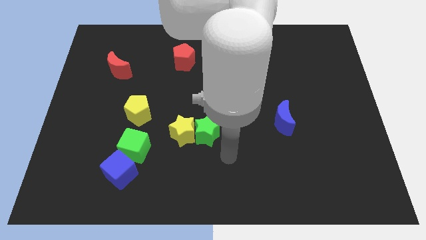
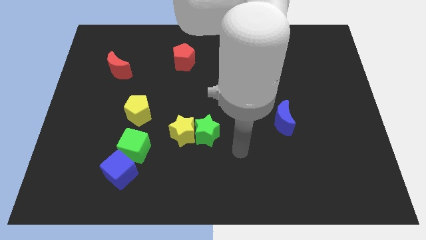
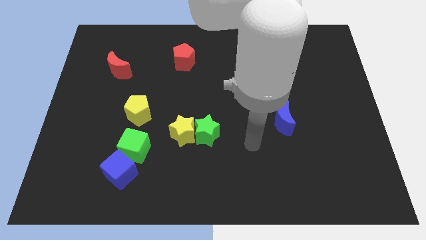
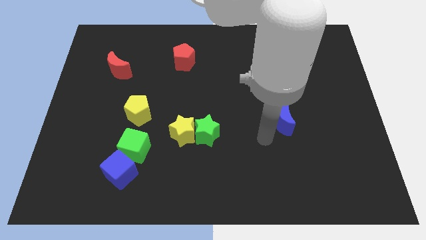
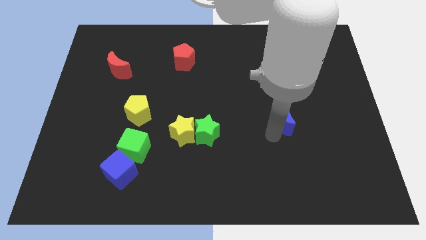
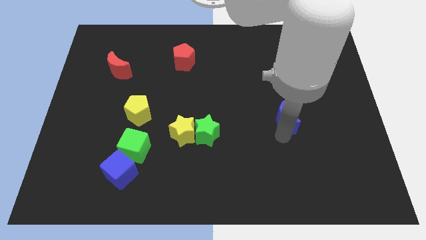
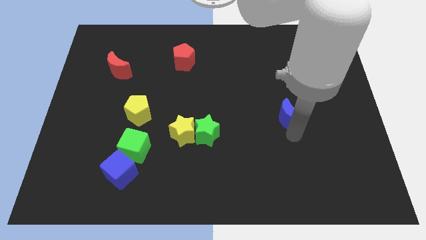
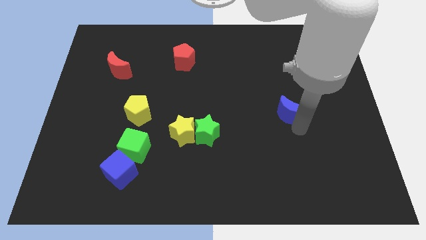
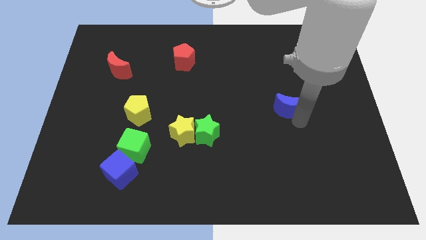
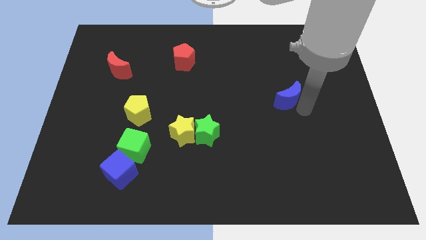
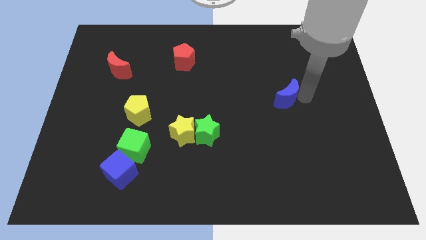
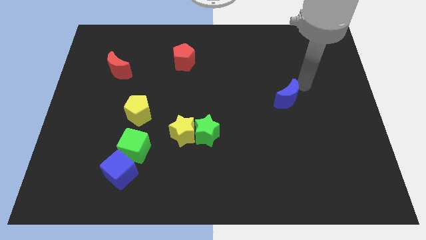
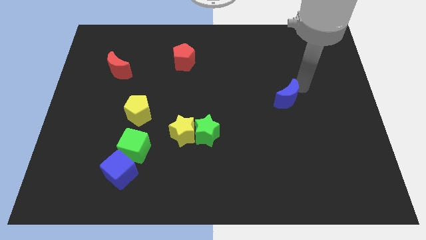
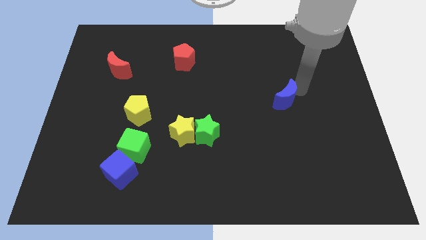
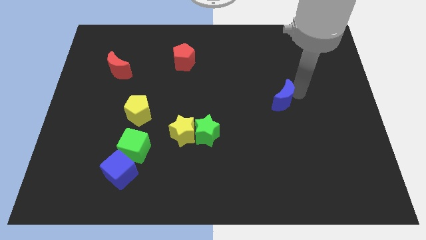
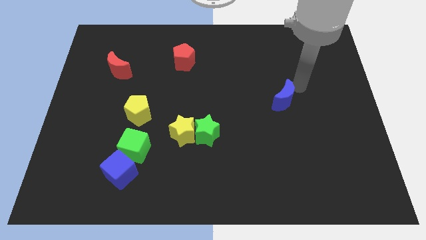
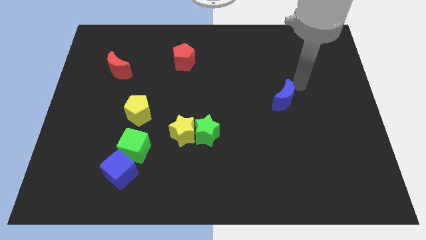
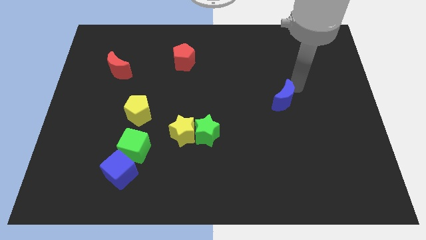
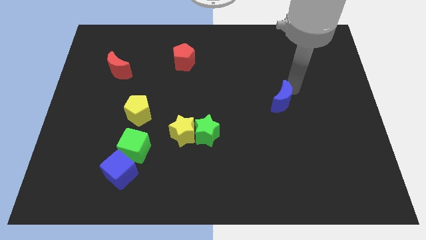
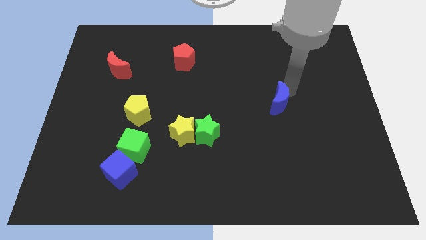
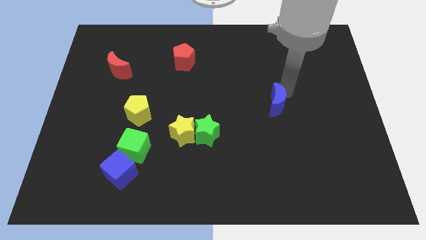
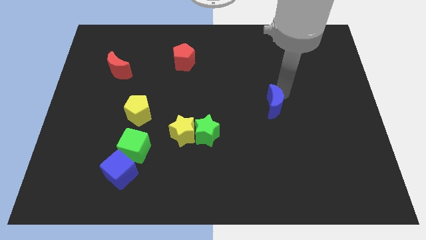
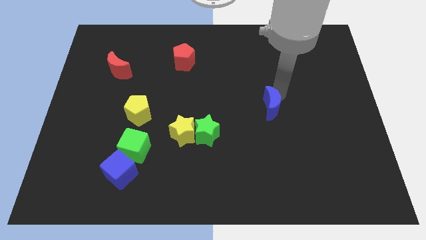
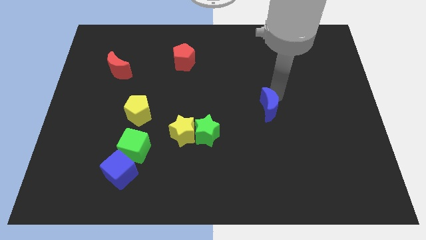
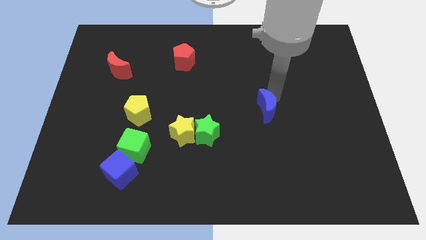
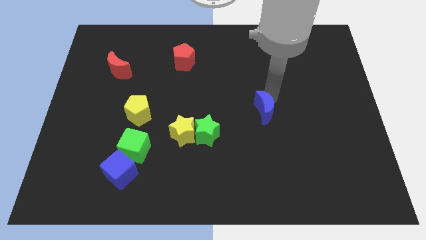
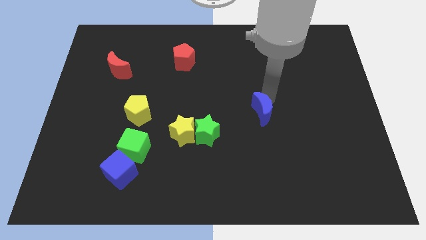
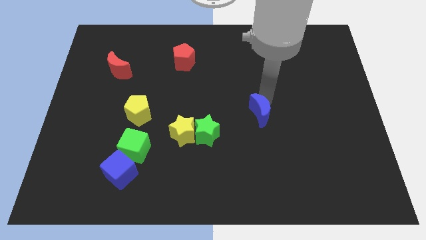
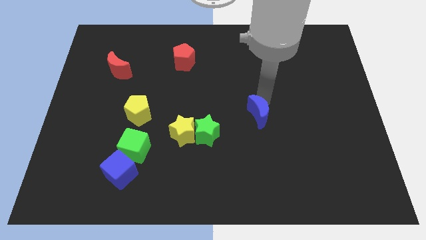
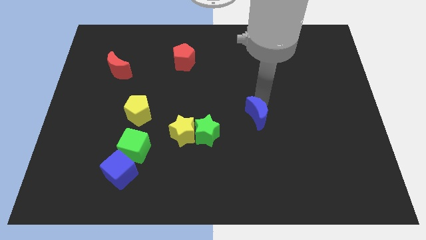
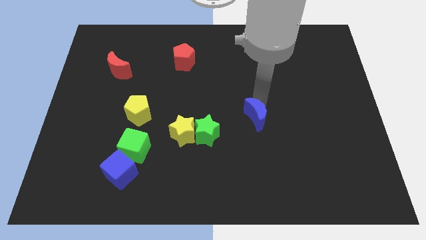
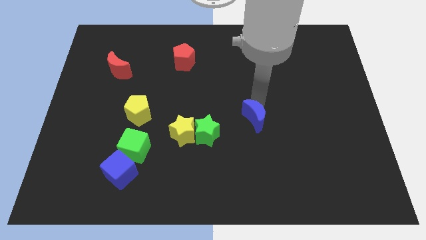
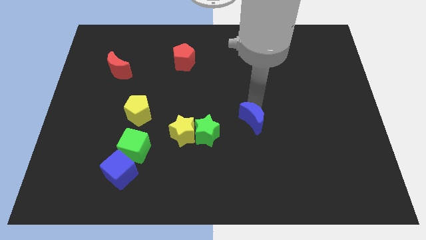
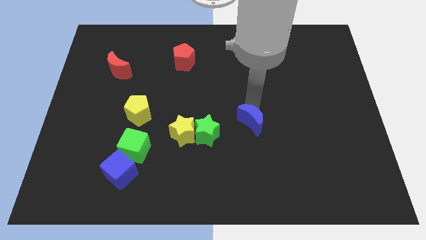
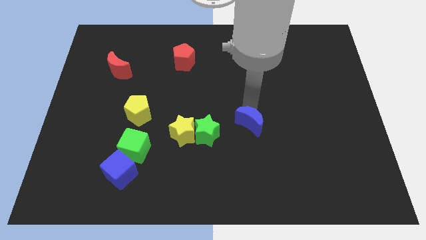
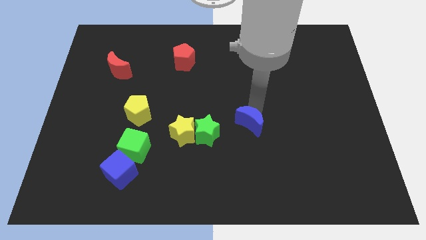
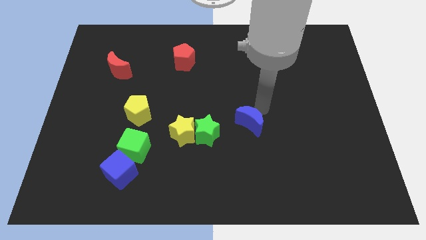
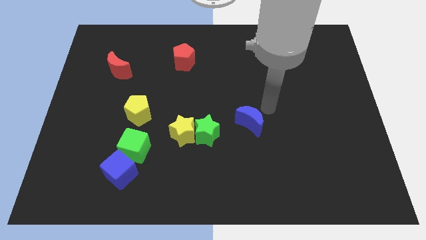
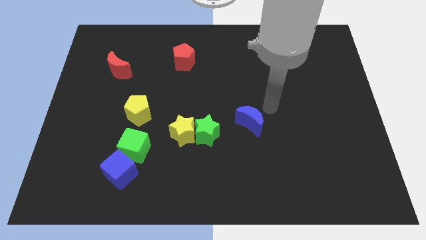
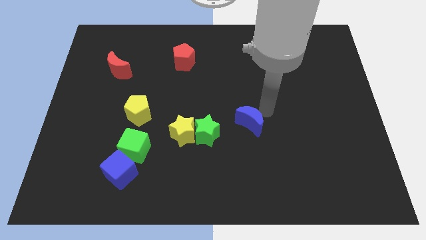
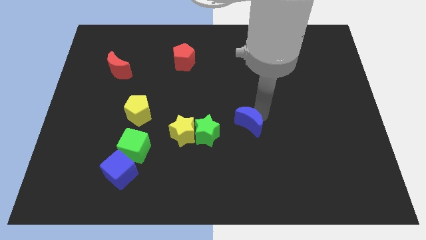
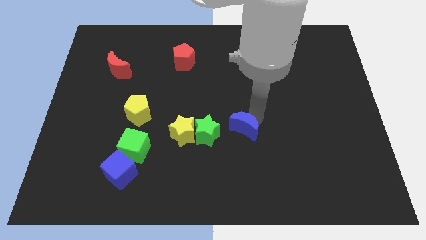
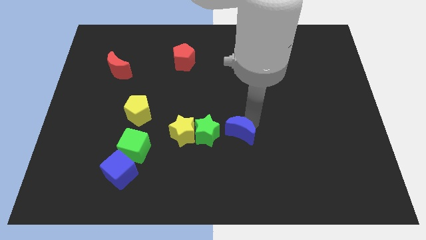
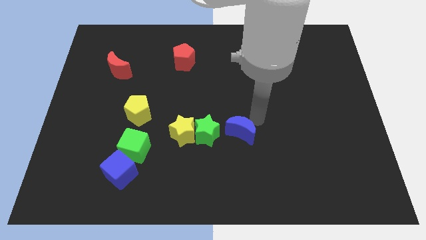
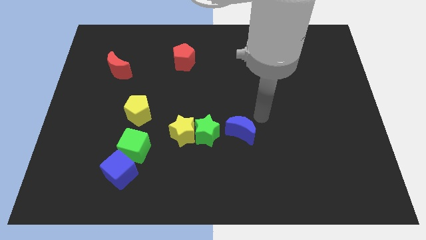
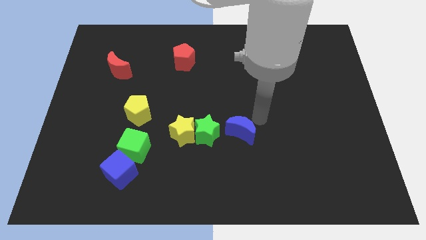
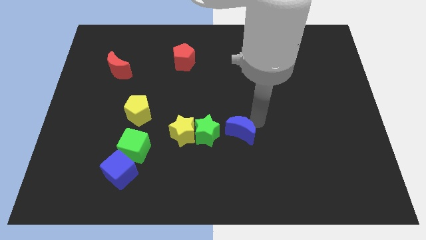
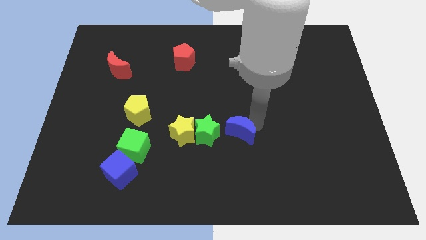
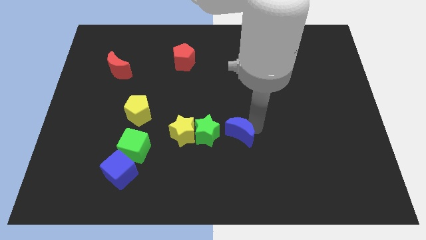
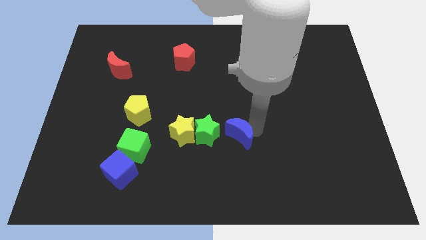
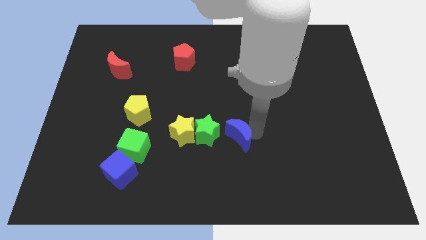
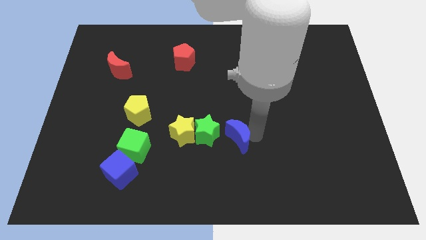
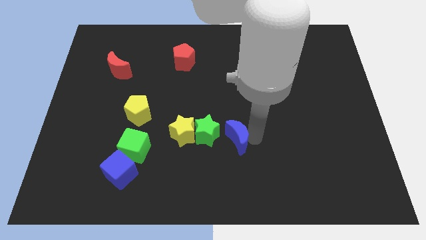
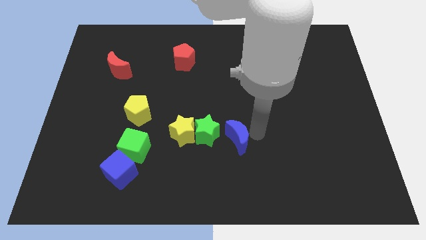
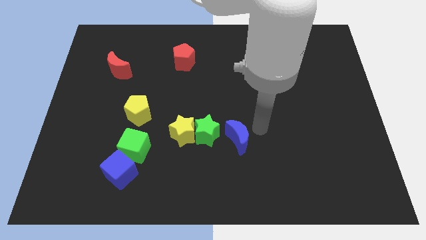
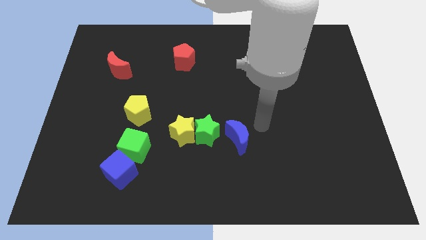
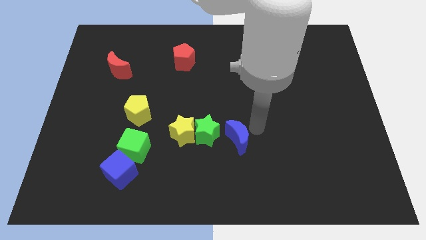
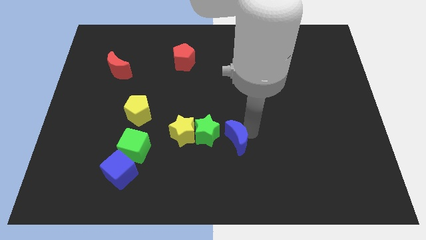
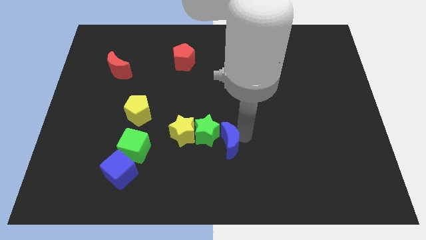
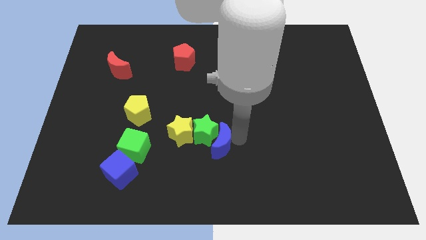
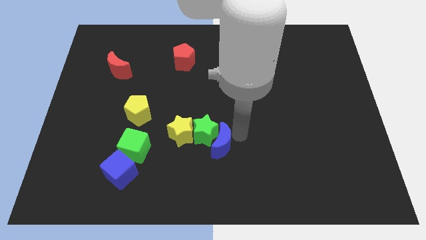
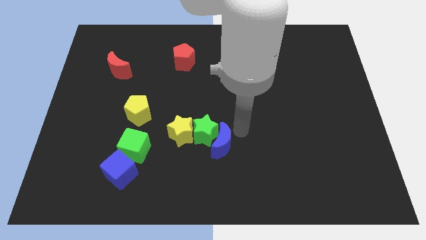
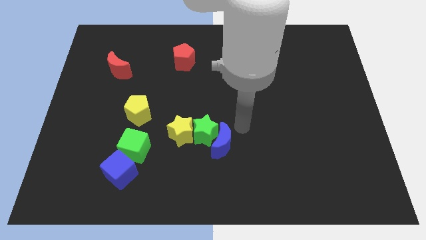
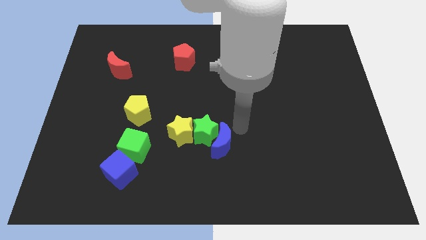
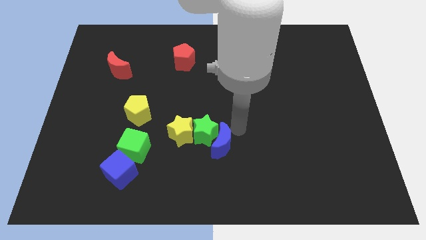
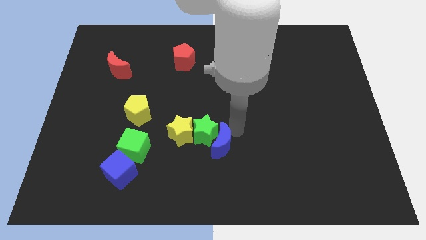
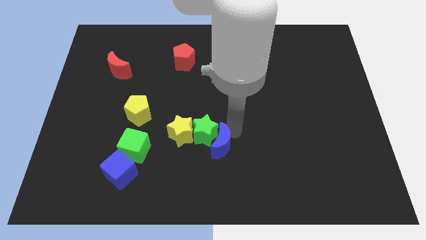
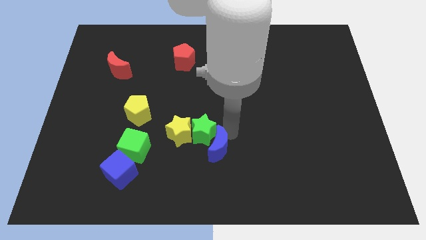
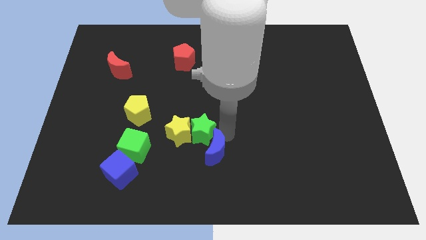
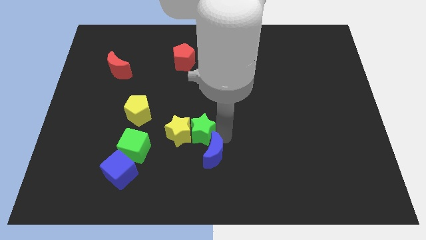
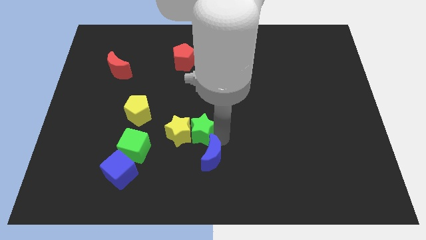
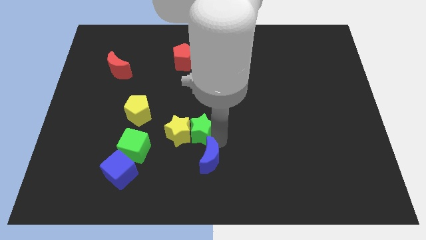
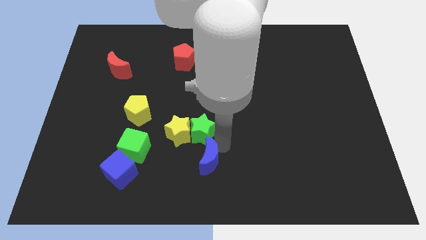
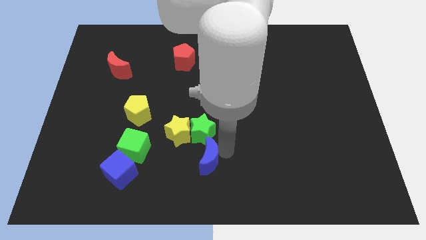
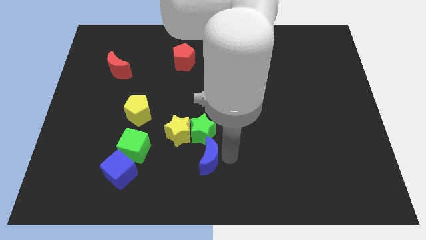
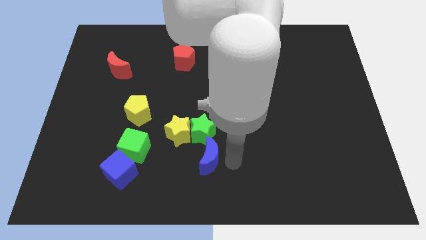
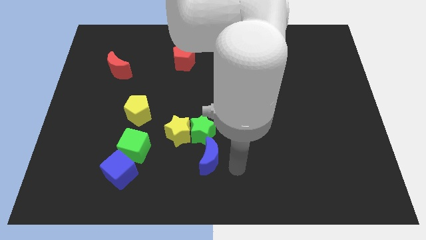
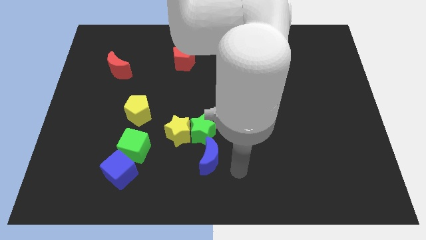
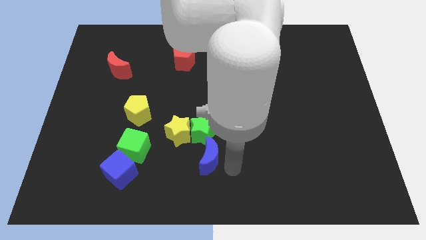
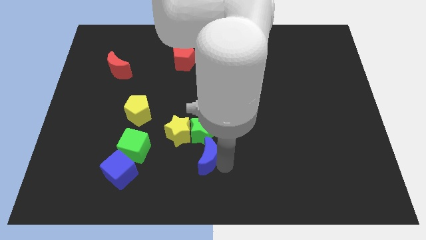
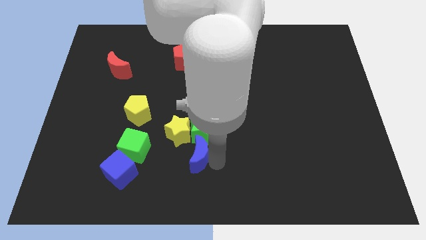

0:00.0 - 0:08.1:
push the blue moon to the right of the green cube
